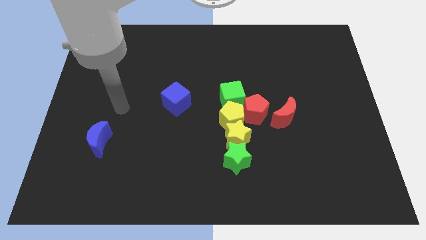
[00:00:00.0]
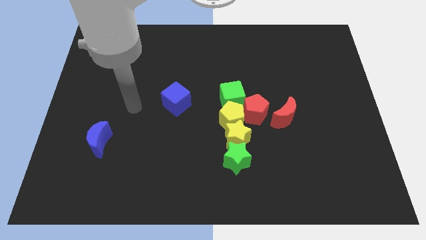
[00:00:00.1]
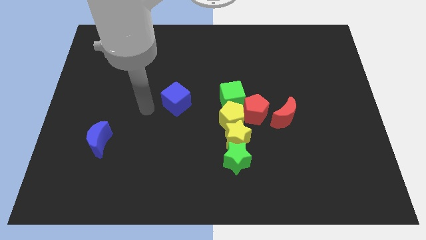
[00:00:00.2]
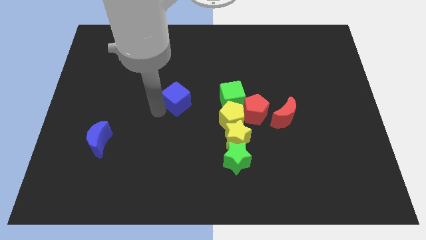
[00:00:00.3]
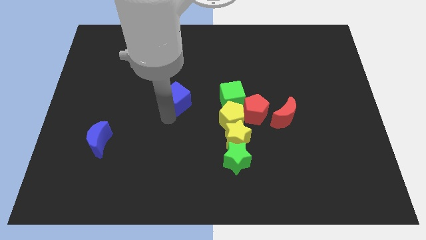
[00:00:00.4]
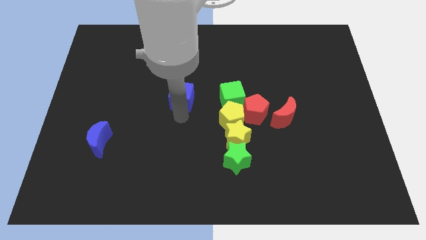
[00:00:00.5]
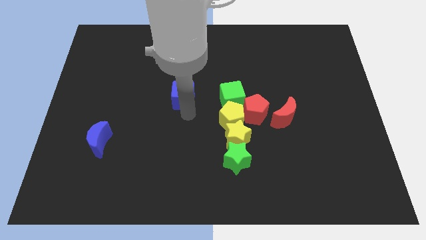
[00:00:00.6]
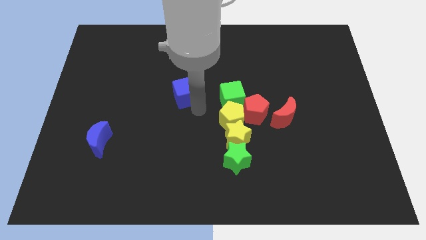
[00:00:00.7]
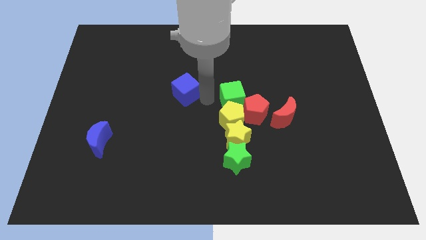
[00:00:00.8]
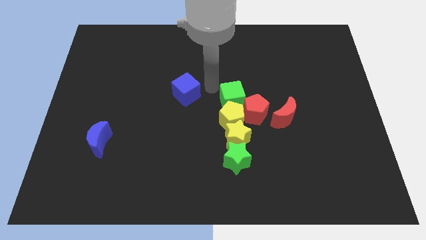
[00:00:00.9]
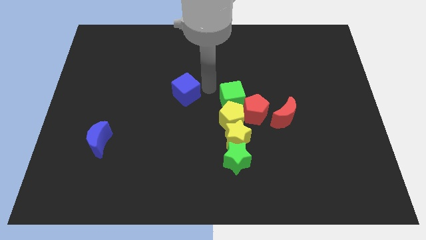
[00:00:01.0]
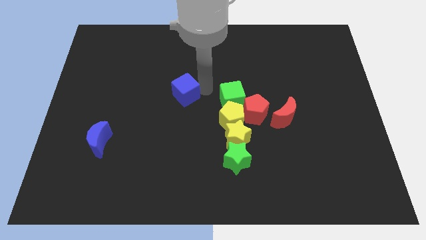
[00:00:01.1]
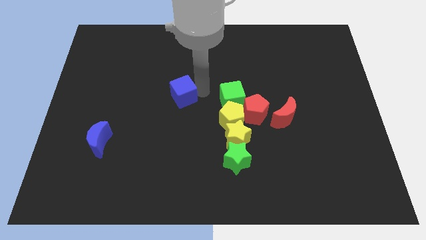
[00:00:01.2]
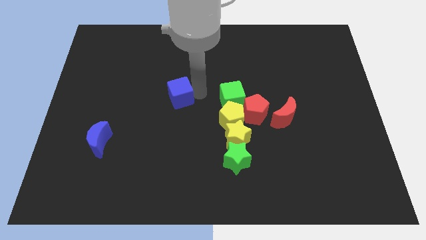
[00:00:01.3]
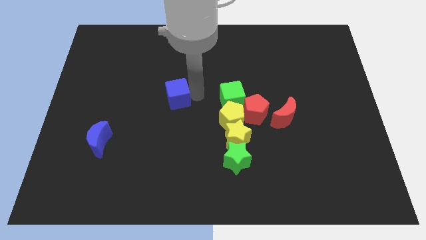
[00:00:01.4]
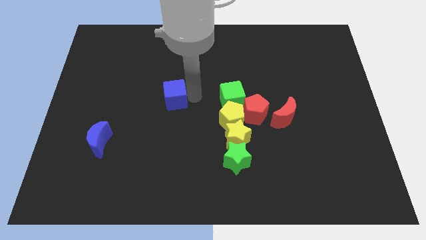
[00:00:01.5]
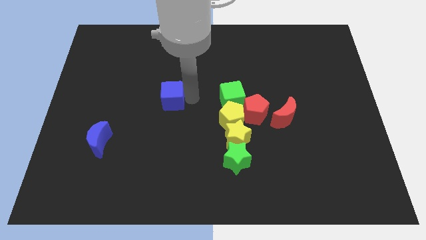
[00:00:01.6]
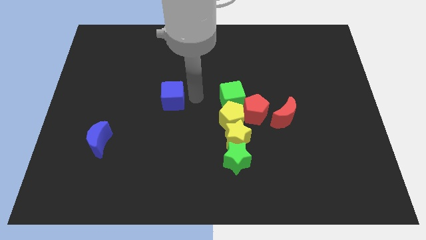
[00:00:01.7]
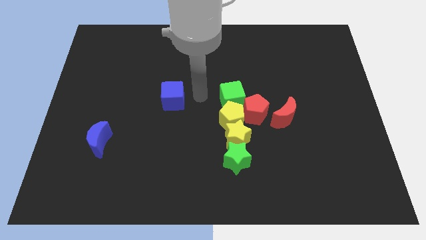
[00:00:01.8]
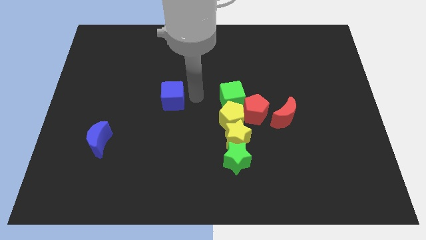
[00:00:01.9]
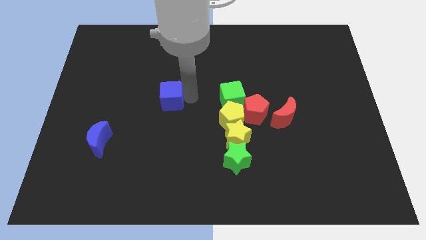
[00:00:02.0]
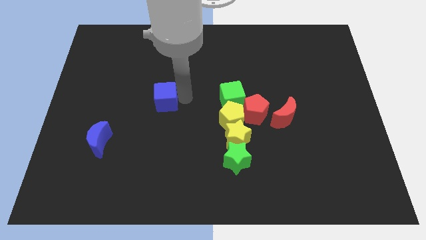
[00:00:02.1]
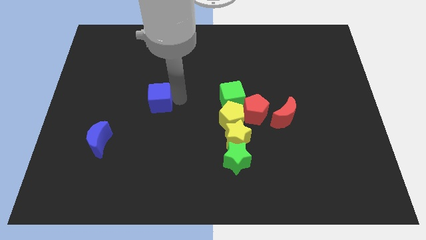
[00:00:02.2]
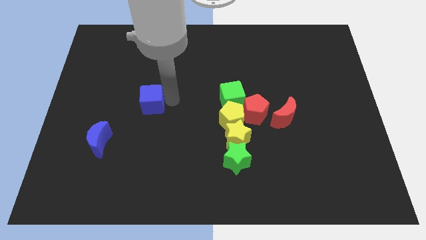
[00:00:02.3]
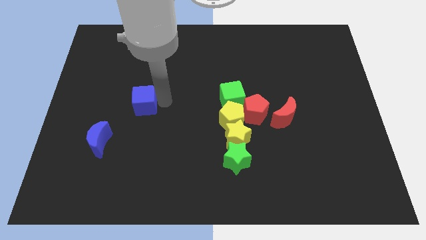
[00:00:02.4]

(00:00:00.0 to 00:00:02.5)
slide the blue cube a little to the left

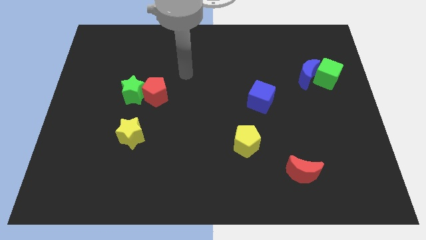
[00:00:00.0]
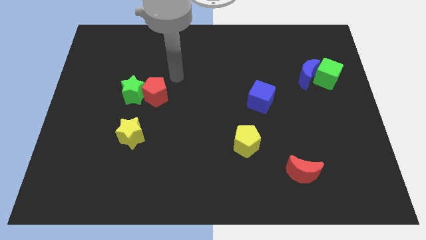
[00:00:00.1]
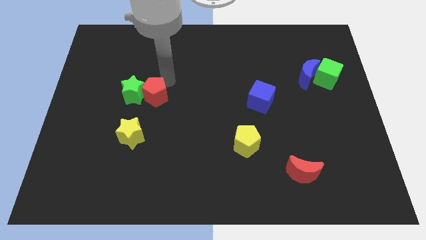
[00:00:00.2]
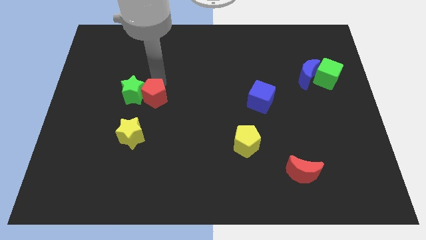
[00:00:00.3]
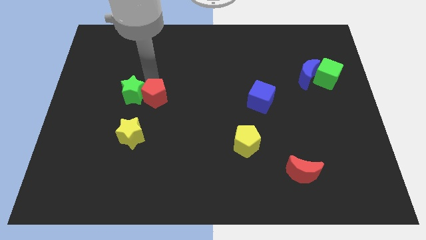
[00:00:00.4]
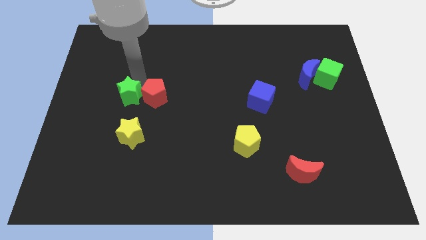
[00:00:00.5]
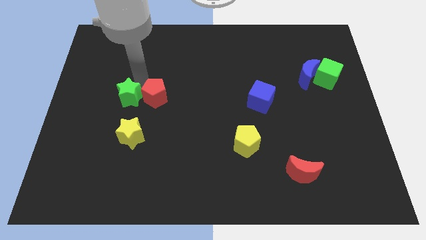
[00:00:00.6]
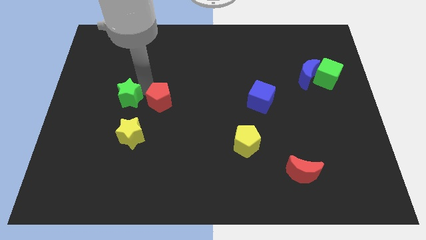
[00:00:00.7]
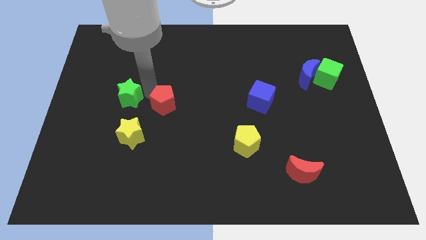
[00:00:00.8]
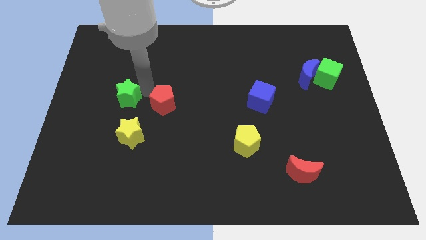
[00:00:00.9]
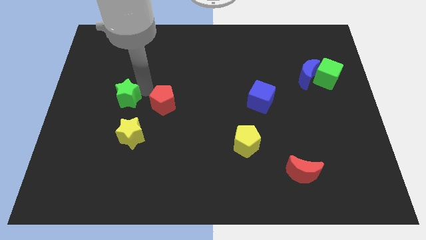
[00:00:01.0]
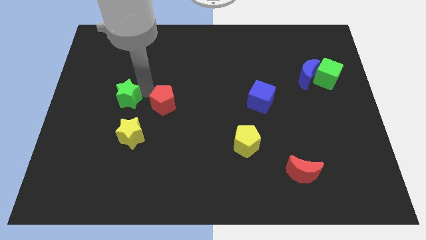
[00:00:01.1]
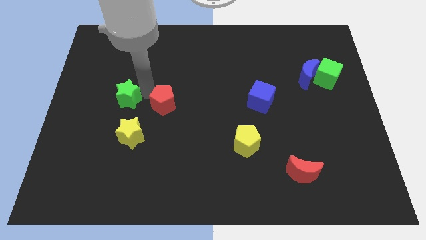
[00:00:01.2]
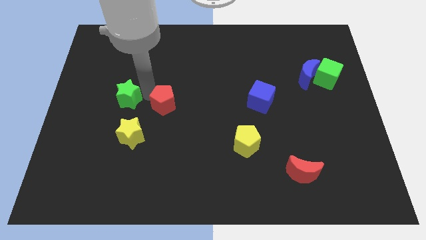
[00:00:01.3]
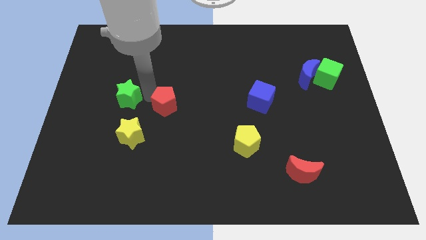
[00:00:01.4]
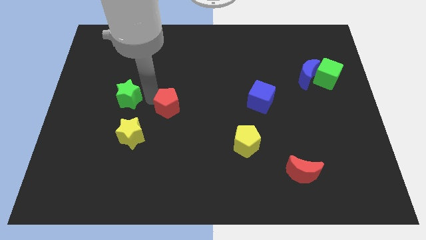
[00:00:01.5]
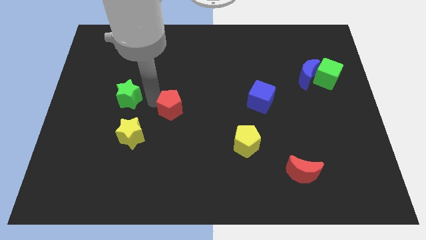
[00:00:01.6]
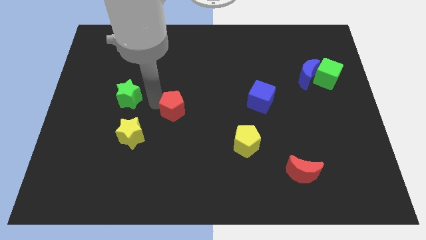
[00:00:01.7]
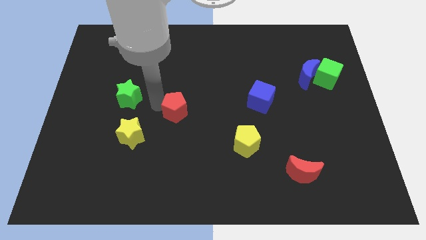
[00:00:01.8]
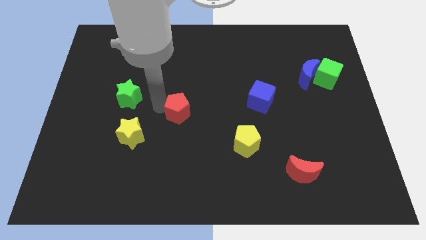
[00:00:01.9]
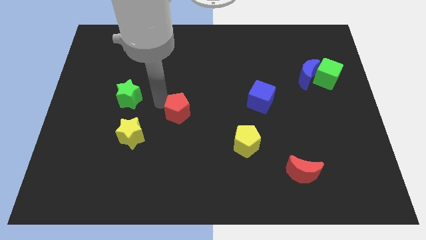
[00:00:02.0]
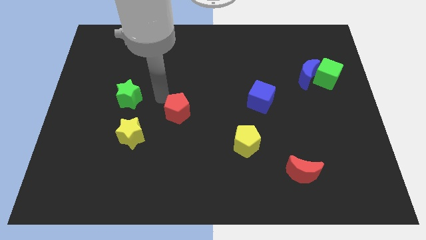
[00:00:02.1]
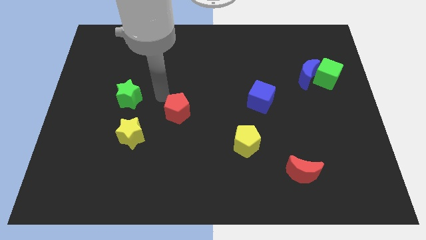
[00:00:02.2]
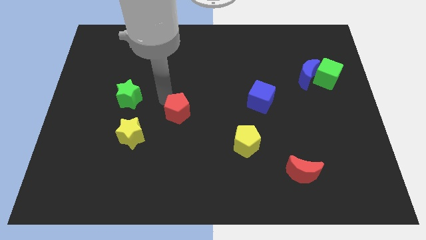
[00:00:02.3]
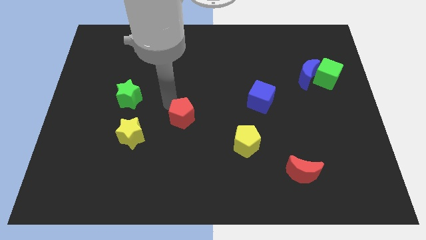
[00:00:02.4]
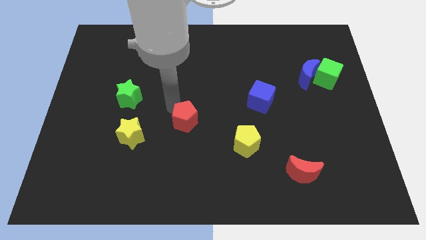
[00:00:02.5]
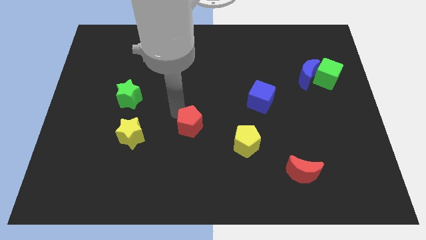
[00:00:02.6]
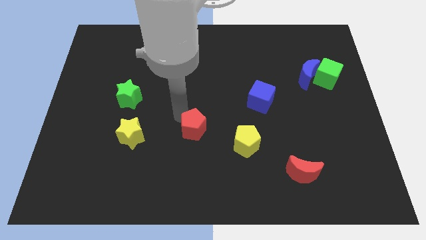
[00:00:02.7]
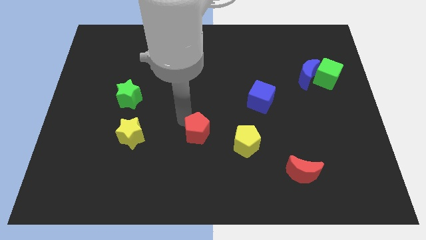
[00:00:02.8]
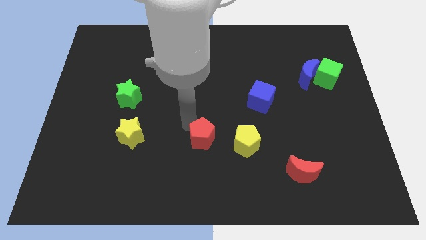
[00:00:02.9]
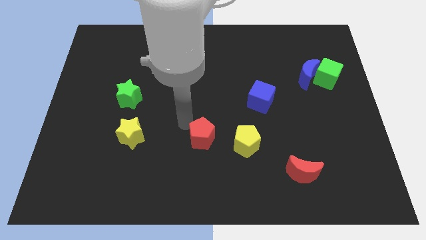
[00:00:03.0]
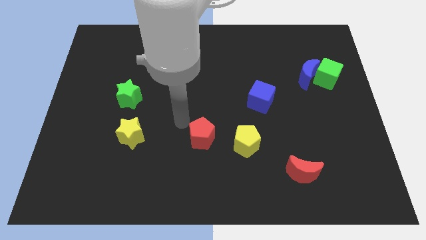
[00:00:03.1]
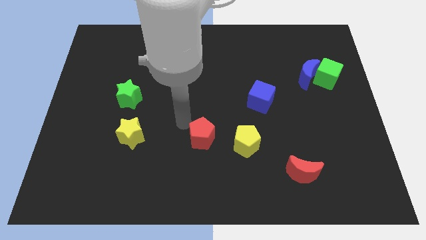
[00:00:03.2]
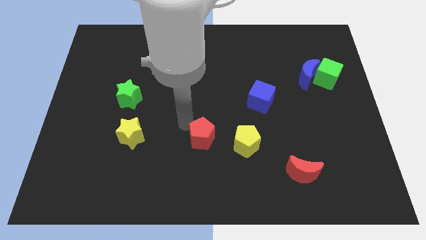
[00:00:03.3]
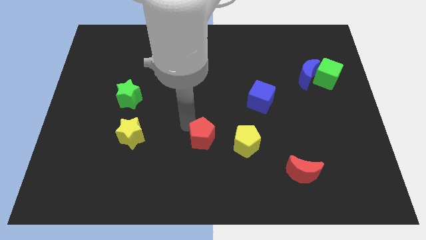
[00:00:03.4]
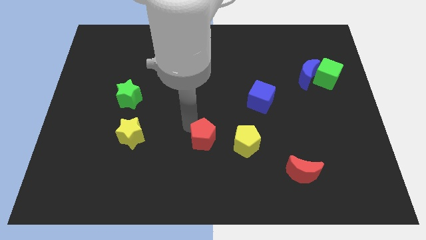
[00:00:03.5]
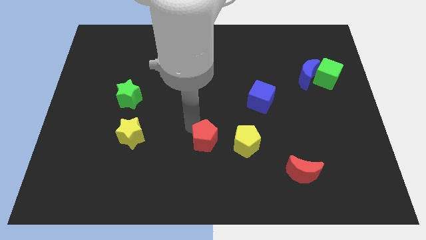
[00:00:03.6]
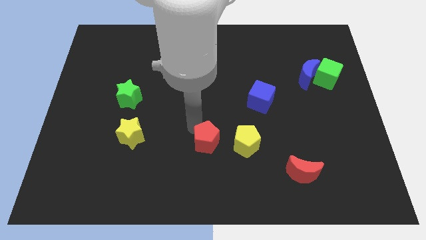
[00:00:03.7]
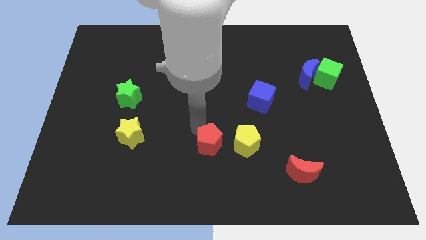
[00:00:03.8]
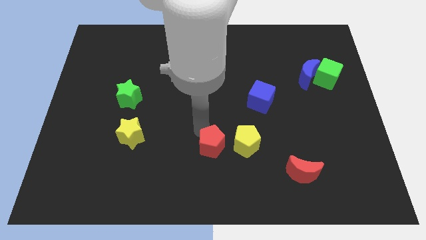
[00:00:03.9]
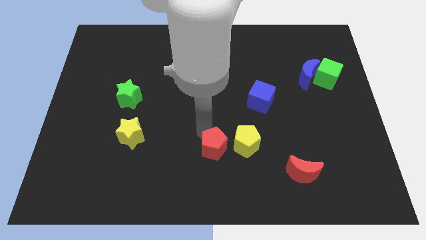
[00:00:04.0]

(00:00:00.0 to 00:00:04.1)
slide the red pentagon downwards and then right

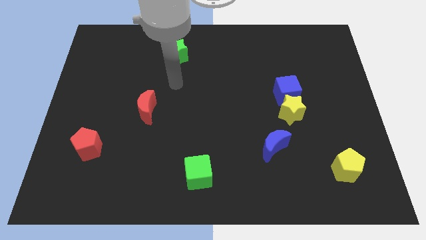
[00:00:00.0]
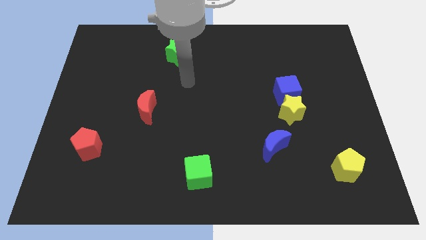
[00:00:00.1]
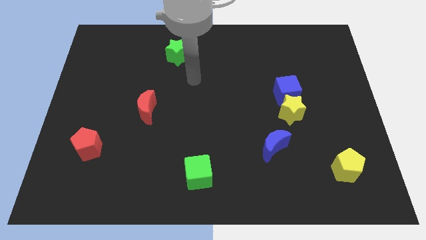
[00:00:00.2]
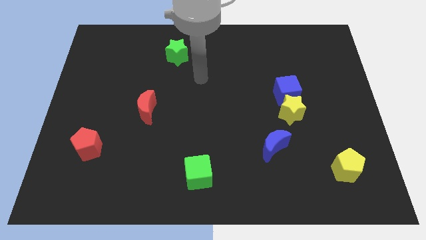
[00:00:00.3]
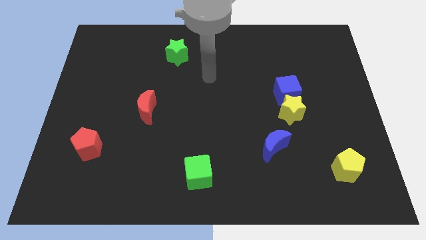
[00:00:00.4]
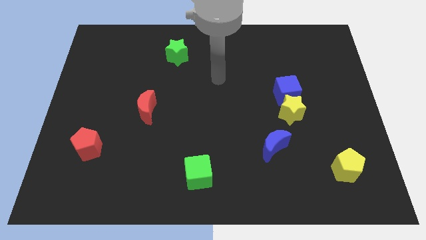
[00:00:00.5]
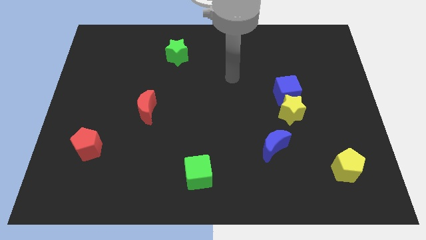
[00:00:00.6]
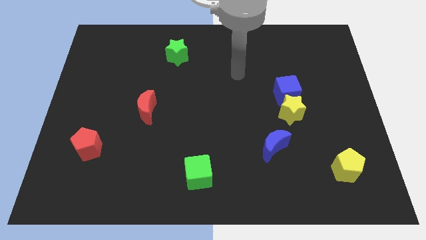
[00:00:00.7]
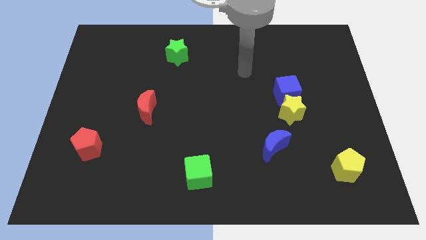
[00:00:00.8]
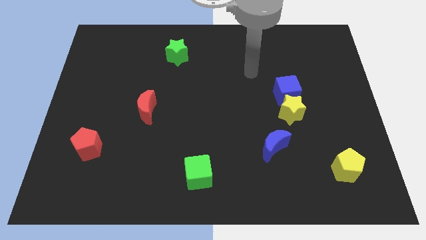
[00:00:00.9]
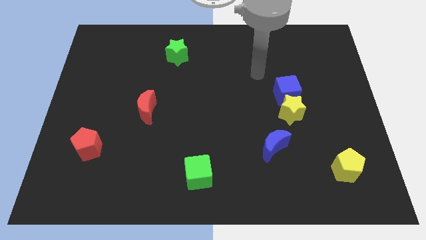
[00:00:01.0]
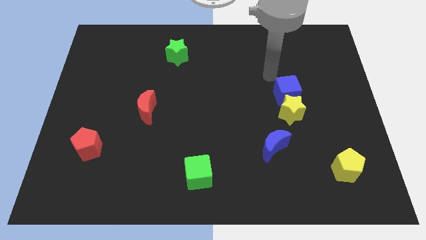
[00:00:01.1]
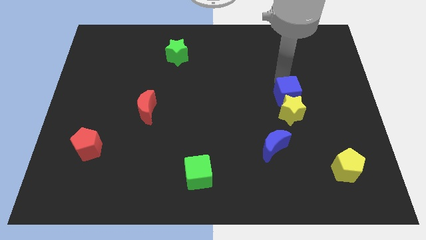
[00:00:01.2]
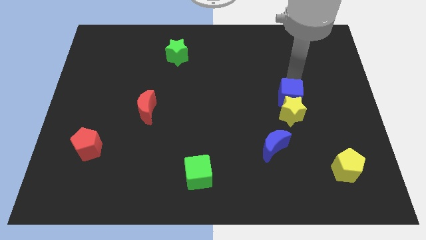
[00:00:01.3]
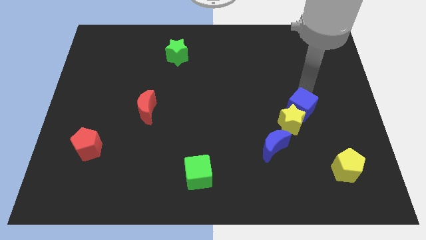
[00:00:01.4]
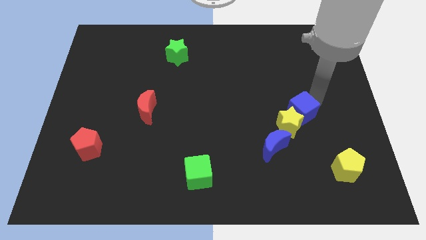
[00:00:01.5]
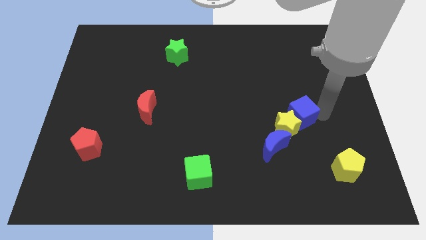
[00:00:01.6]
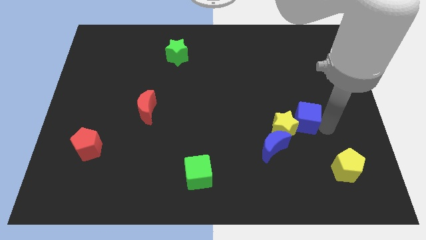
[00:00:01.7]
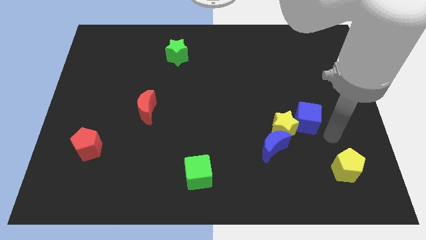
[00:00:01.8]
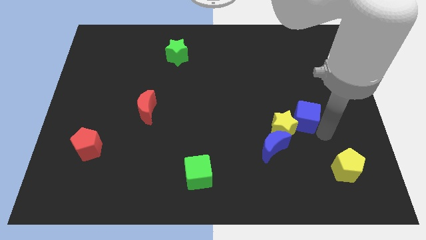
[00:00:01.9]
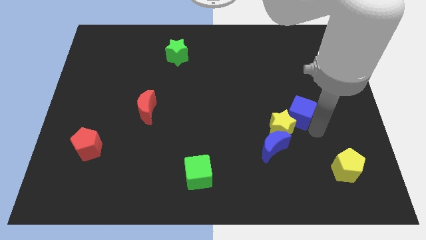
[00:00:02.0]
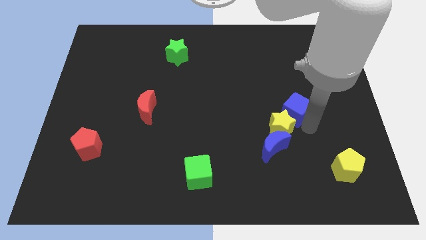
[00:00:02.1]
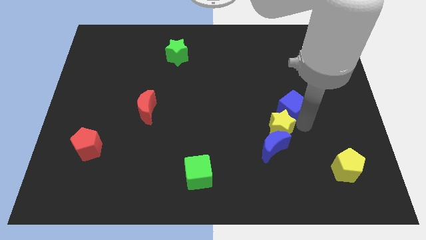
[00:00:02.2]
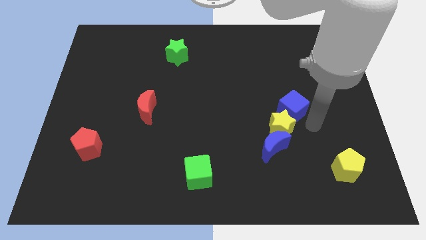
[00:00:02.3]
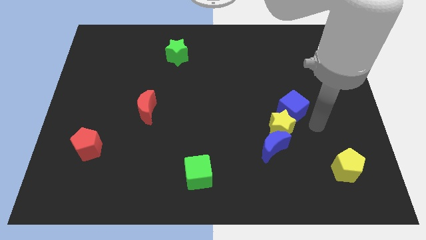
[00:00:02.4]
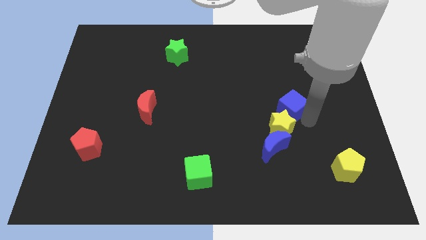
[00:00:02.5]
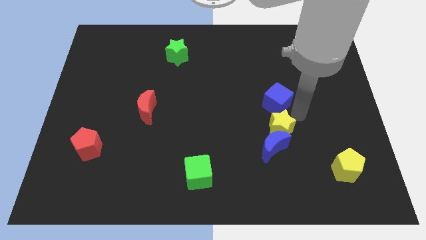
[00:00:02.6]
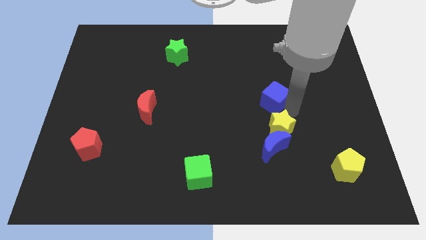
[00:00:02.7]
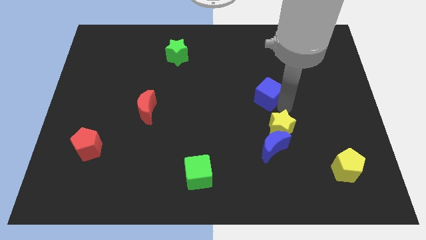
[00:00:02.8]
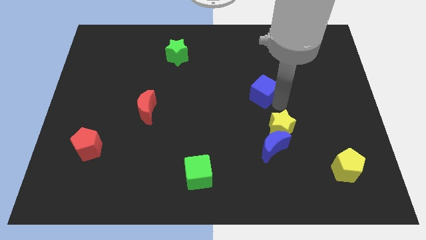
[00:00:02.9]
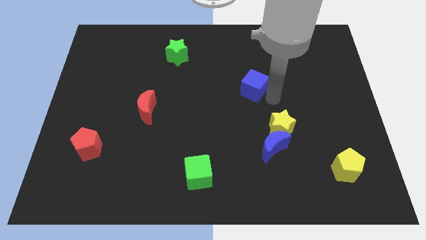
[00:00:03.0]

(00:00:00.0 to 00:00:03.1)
slide the blue cube to the left a little bit
